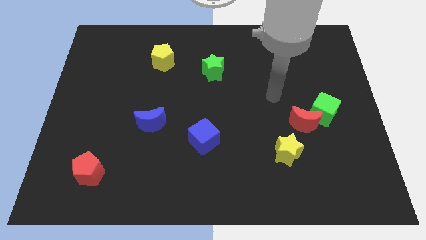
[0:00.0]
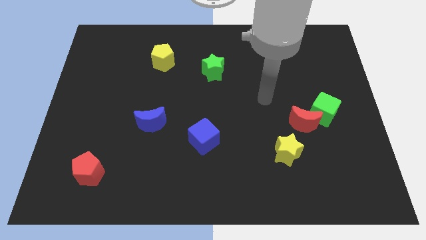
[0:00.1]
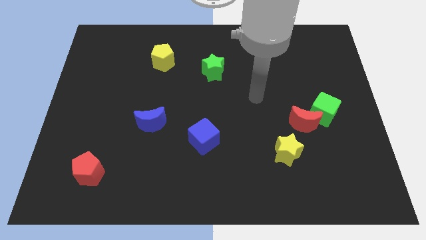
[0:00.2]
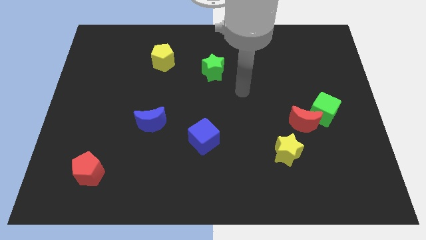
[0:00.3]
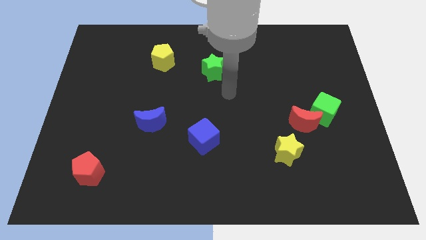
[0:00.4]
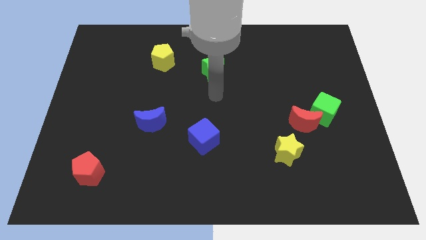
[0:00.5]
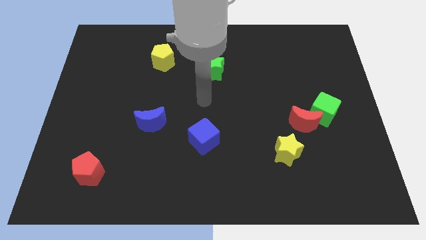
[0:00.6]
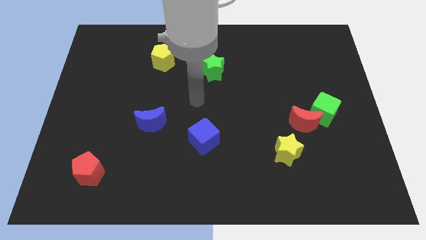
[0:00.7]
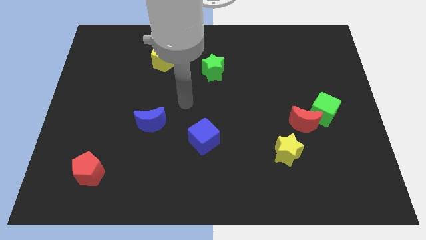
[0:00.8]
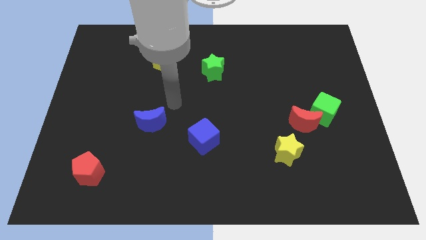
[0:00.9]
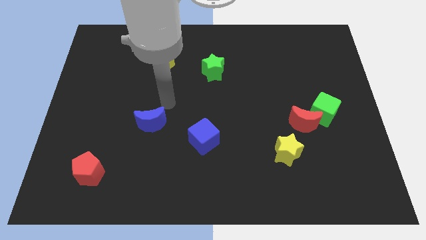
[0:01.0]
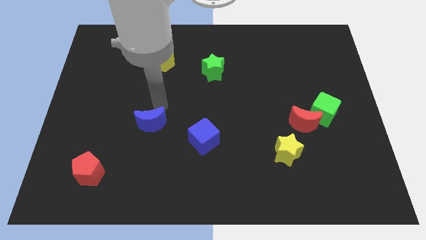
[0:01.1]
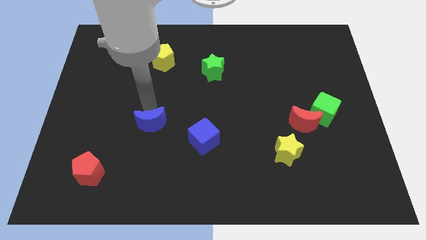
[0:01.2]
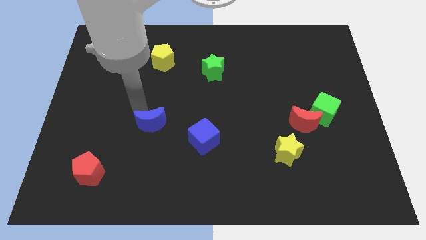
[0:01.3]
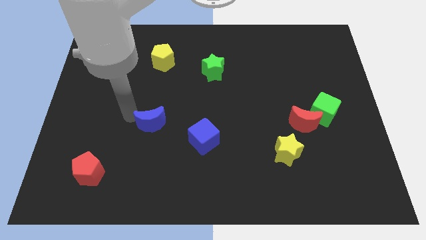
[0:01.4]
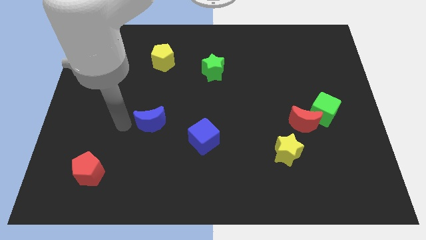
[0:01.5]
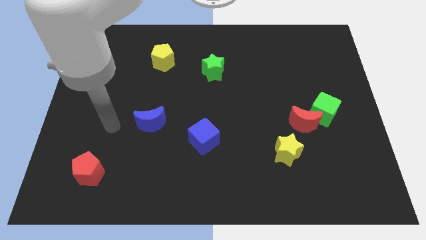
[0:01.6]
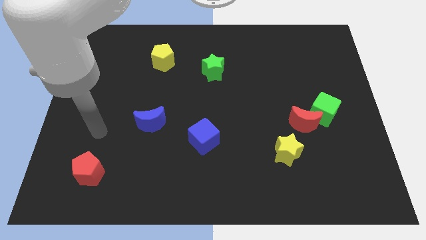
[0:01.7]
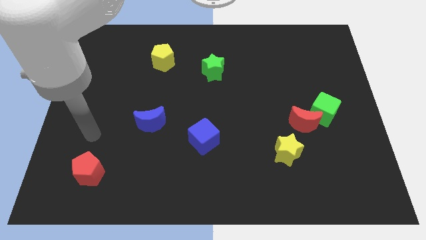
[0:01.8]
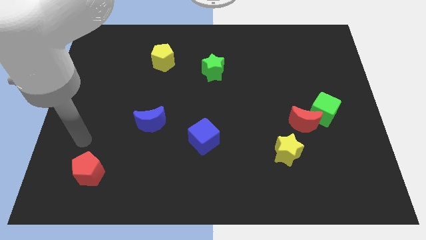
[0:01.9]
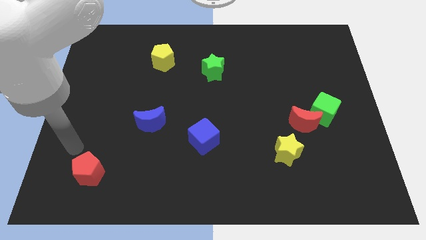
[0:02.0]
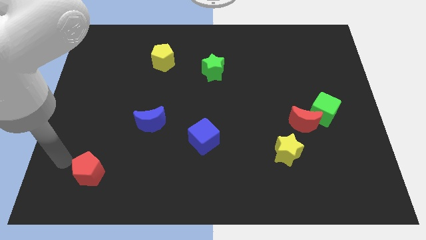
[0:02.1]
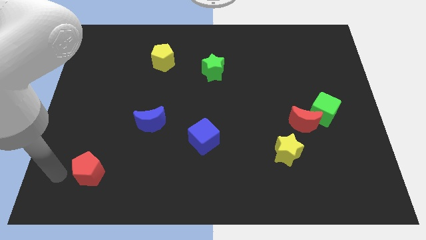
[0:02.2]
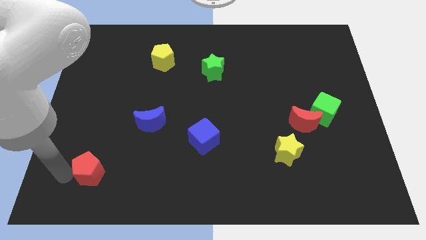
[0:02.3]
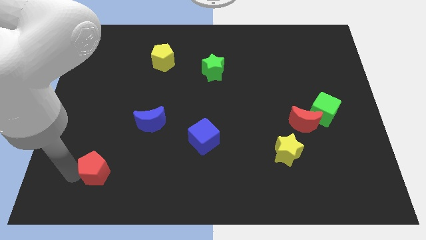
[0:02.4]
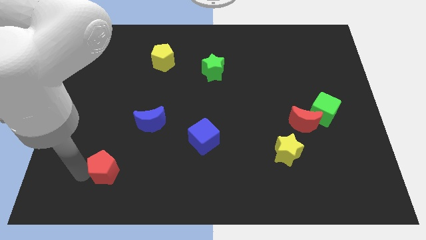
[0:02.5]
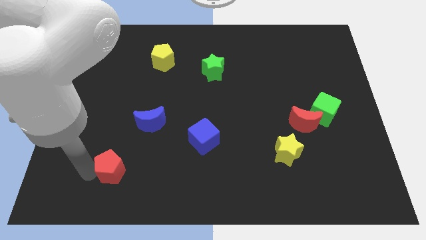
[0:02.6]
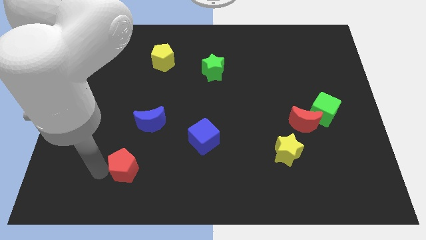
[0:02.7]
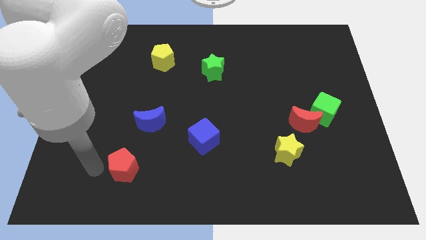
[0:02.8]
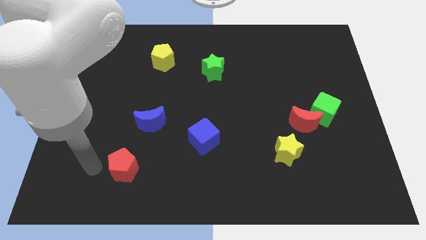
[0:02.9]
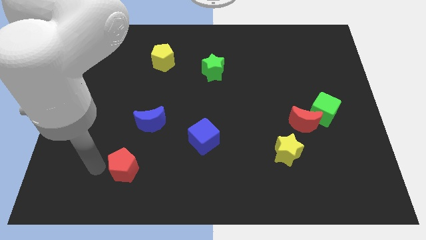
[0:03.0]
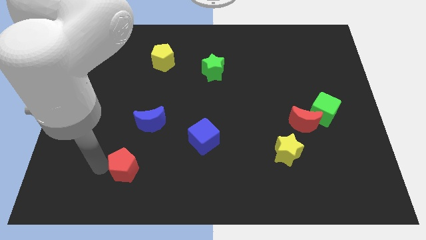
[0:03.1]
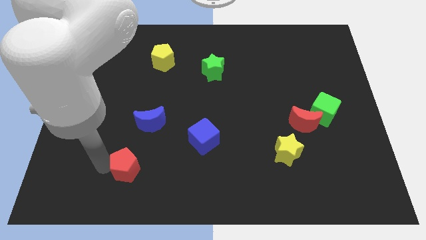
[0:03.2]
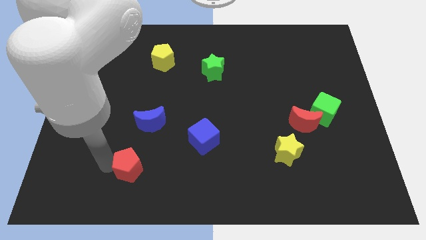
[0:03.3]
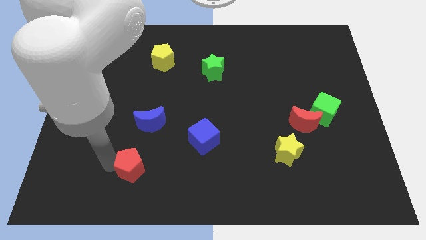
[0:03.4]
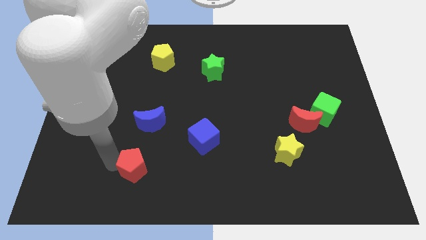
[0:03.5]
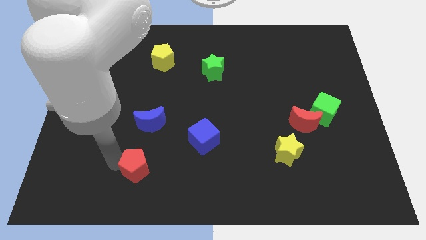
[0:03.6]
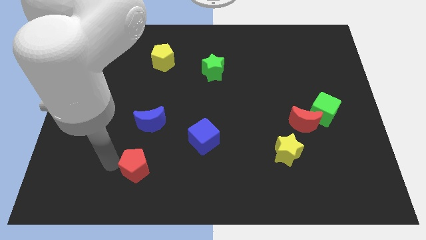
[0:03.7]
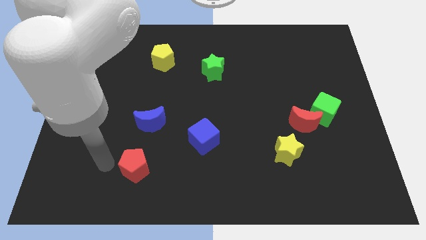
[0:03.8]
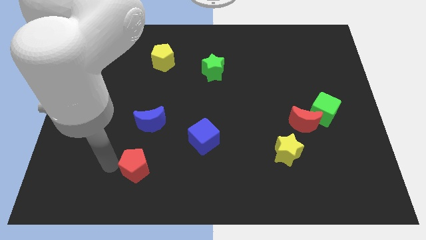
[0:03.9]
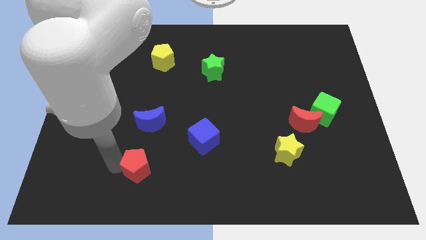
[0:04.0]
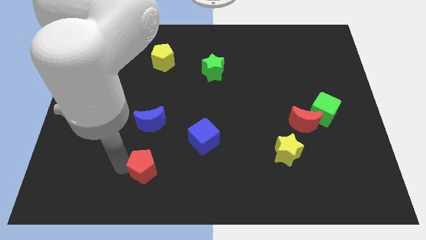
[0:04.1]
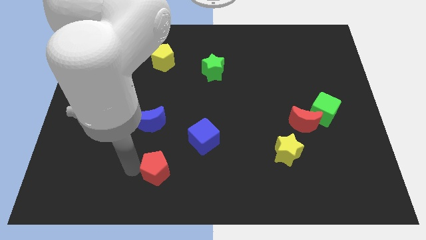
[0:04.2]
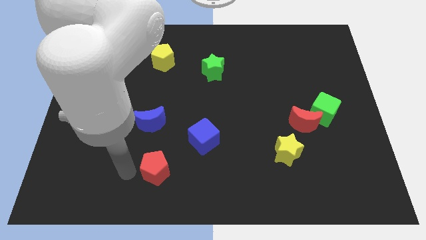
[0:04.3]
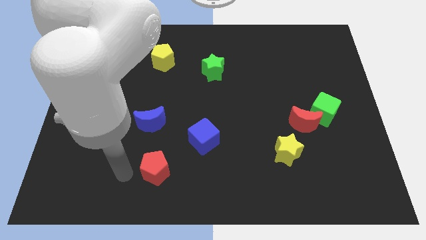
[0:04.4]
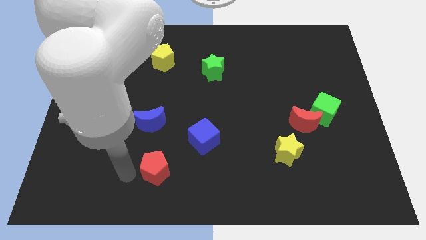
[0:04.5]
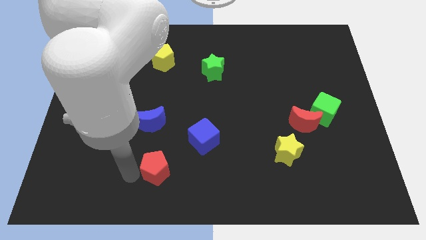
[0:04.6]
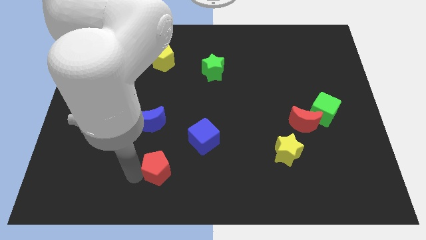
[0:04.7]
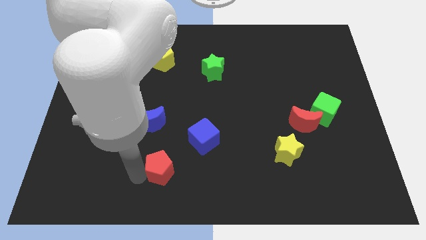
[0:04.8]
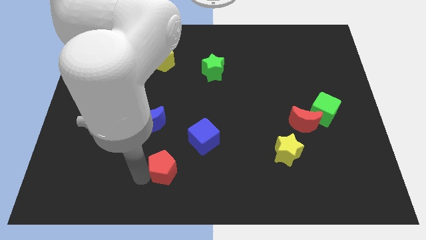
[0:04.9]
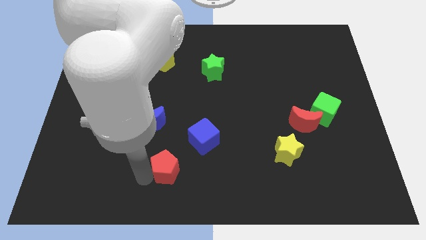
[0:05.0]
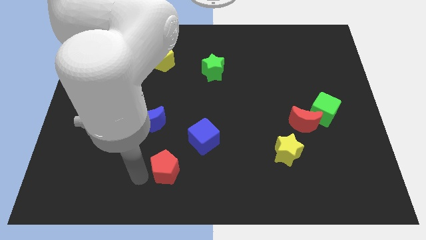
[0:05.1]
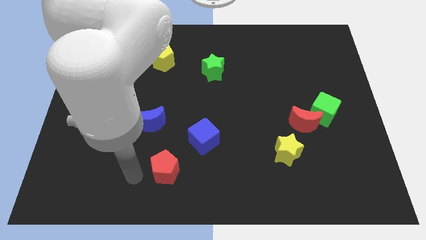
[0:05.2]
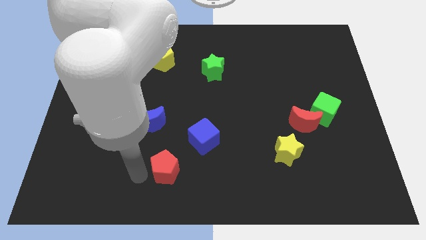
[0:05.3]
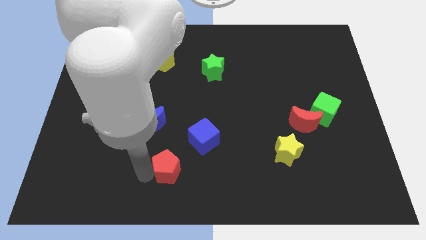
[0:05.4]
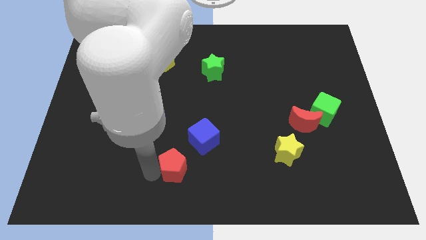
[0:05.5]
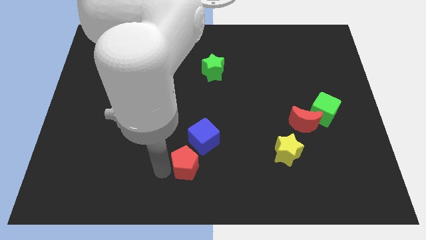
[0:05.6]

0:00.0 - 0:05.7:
slide the red pentagon right

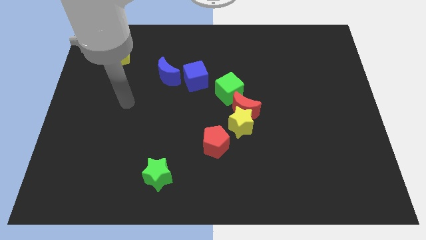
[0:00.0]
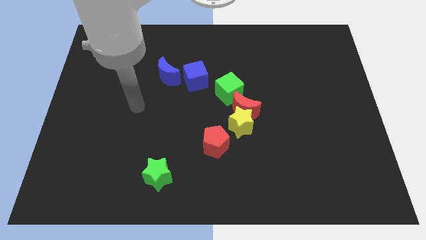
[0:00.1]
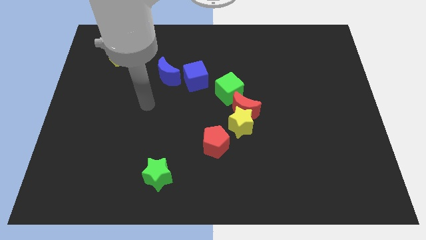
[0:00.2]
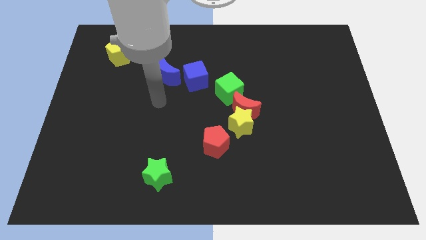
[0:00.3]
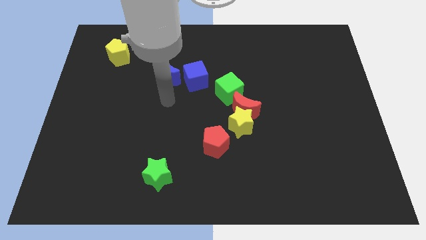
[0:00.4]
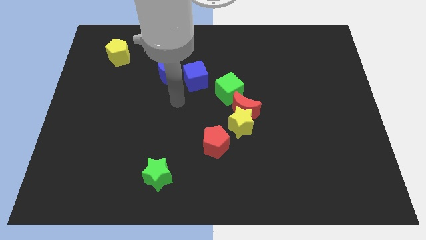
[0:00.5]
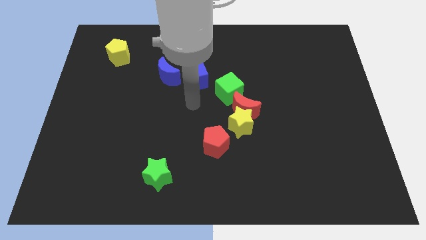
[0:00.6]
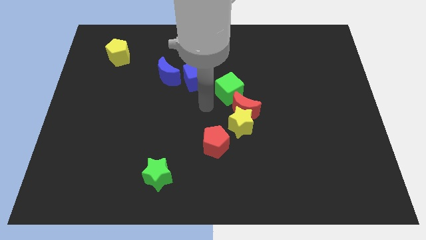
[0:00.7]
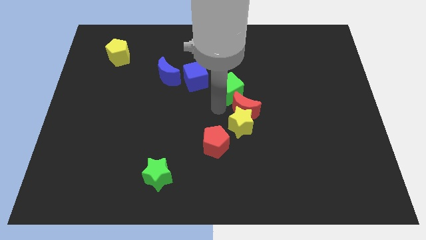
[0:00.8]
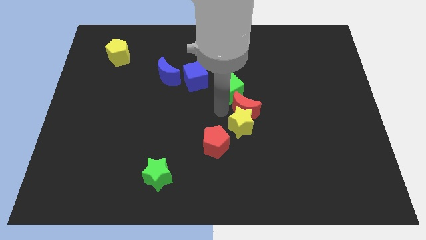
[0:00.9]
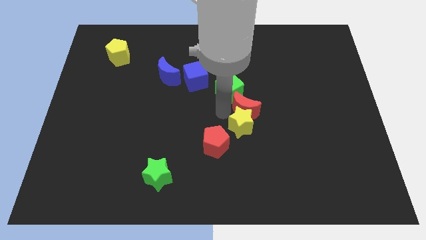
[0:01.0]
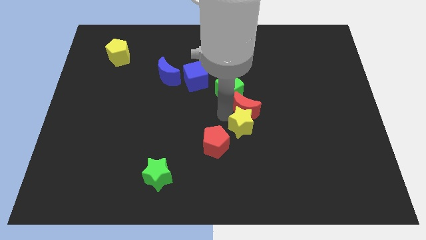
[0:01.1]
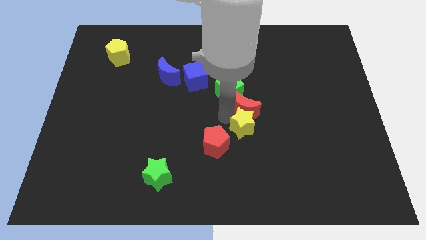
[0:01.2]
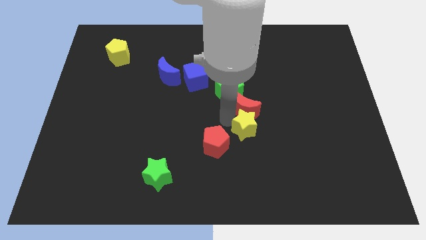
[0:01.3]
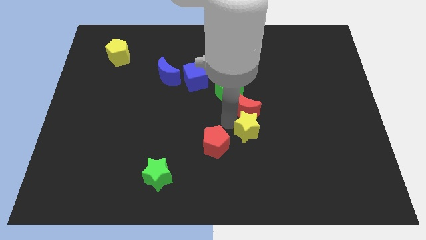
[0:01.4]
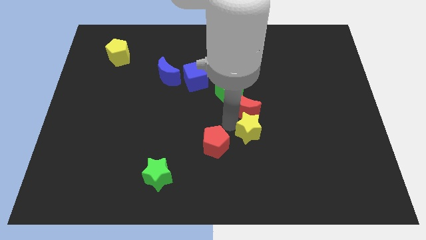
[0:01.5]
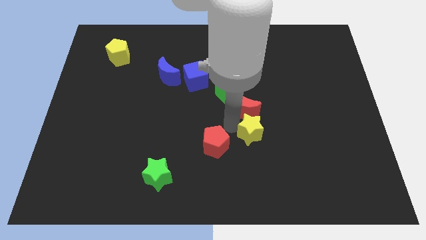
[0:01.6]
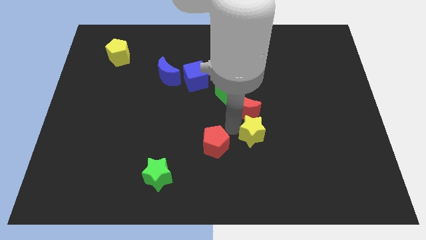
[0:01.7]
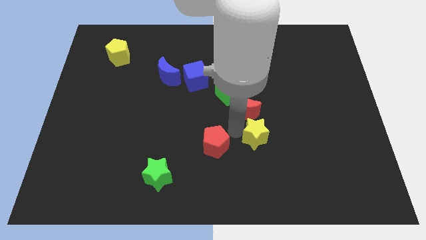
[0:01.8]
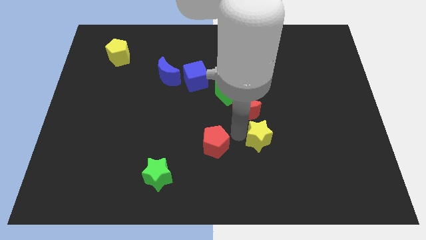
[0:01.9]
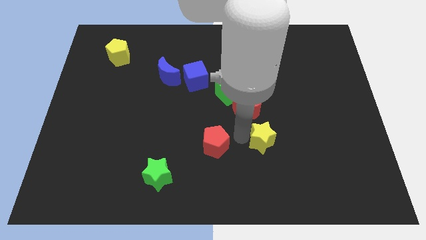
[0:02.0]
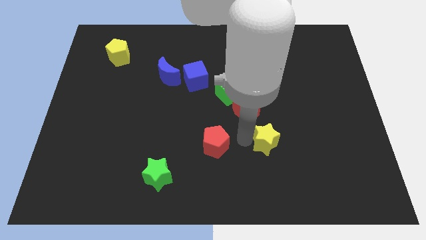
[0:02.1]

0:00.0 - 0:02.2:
push the yellow star slightly down and to the right

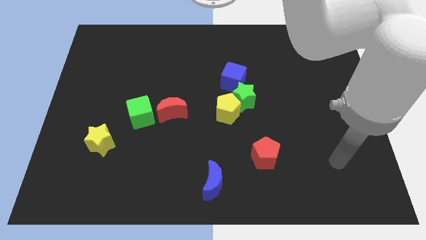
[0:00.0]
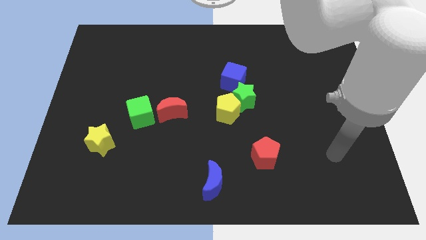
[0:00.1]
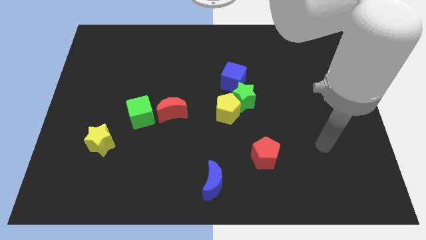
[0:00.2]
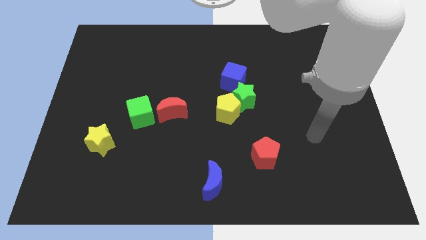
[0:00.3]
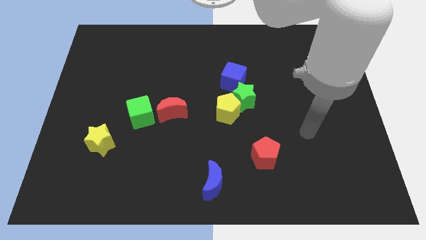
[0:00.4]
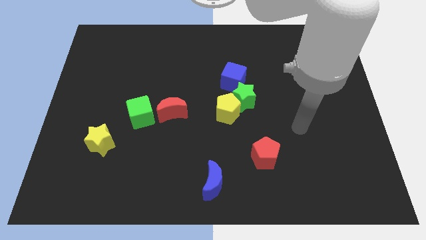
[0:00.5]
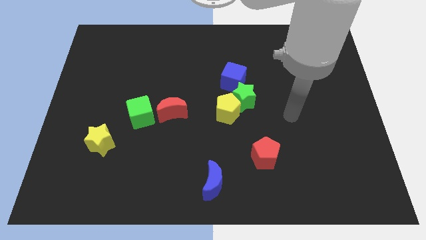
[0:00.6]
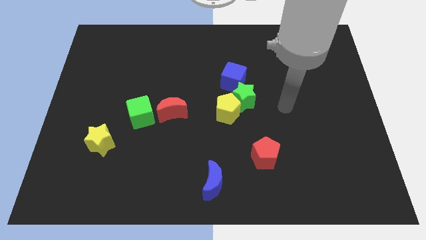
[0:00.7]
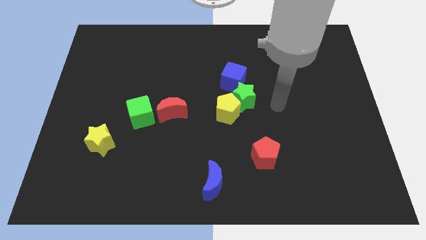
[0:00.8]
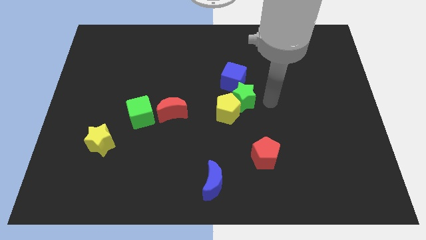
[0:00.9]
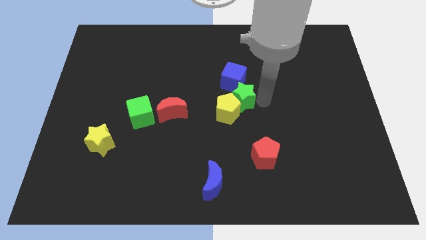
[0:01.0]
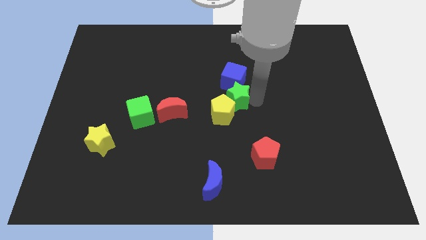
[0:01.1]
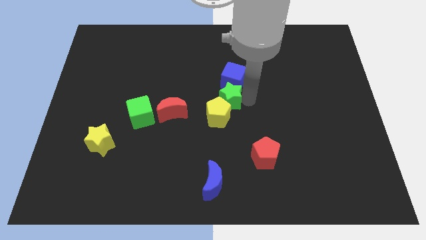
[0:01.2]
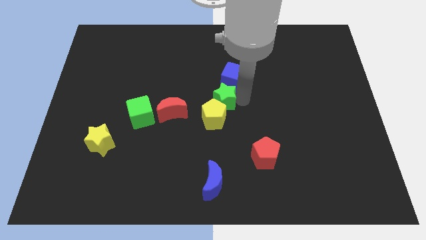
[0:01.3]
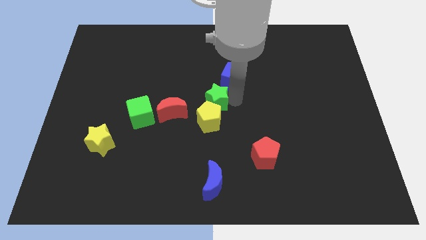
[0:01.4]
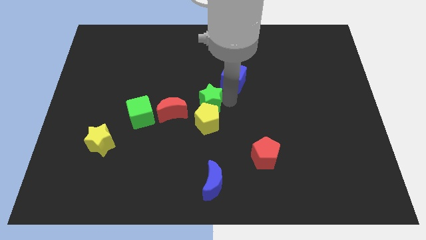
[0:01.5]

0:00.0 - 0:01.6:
slightly move the green star left
